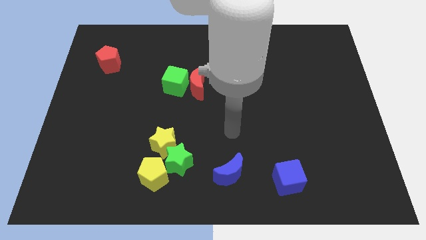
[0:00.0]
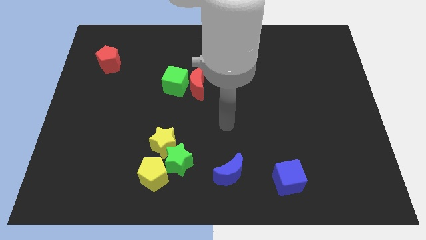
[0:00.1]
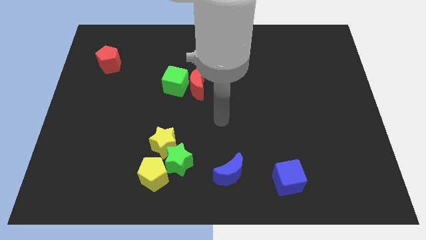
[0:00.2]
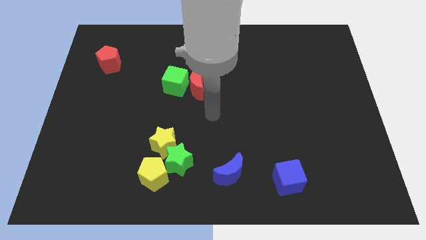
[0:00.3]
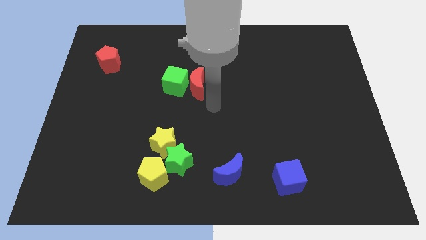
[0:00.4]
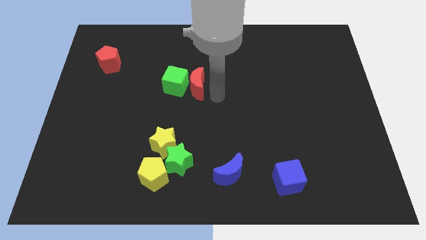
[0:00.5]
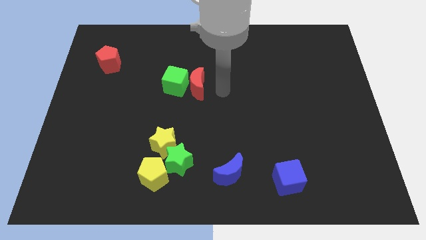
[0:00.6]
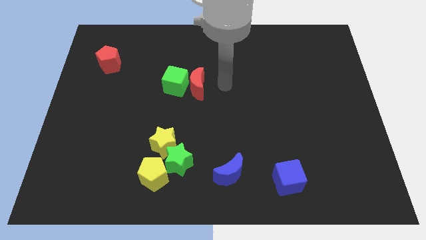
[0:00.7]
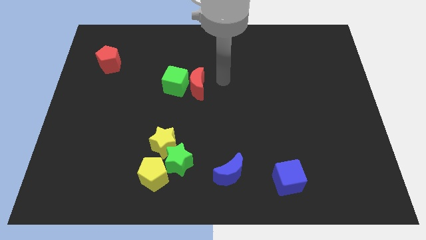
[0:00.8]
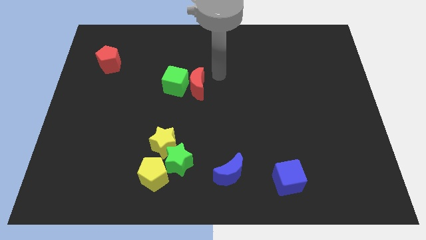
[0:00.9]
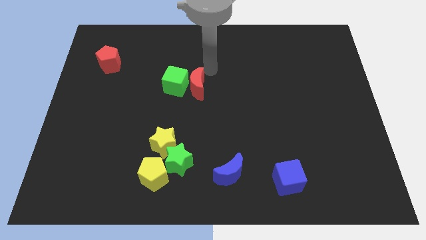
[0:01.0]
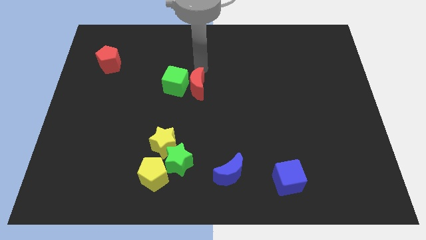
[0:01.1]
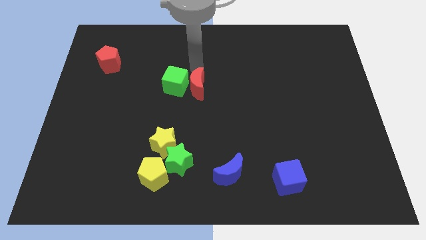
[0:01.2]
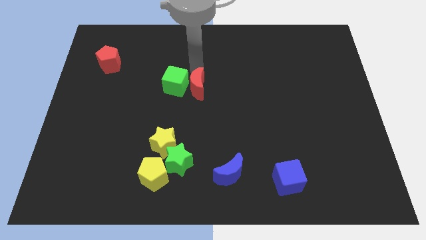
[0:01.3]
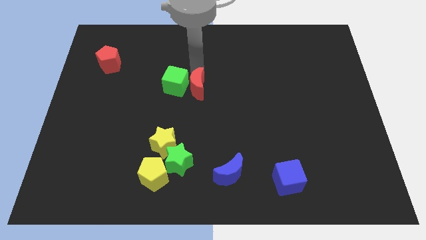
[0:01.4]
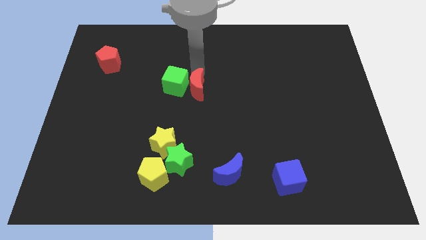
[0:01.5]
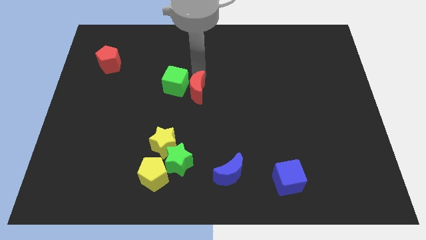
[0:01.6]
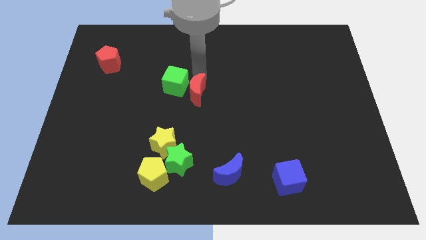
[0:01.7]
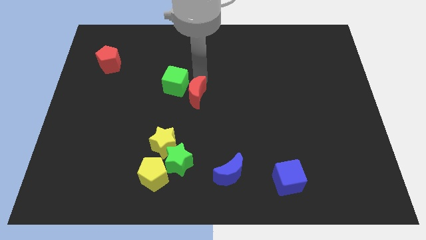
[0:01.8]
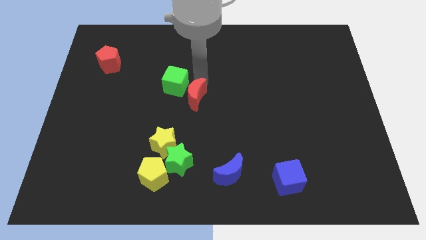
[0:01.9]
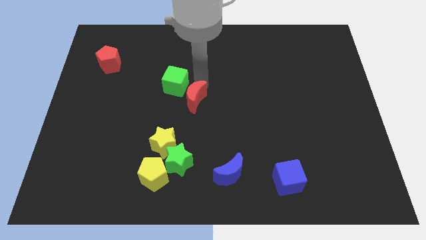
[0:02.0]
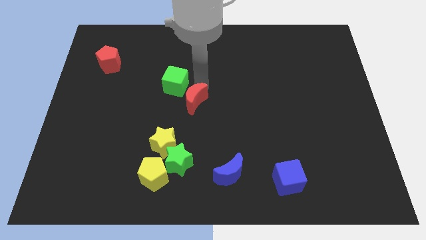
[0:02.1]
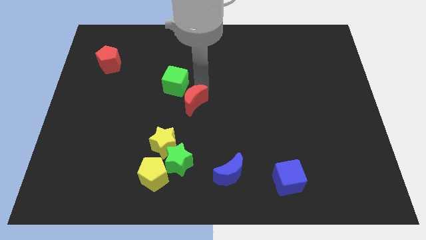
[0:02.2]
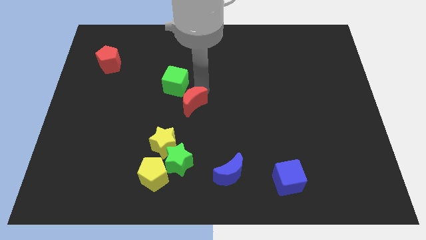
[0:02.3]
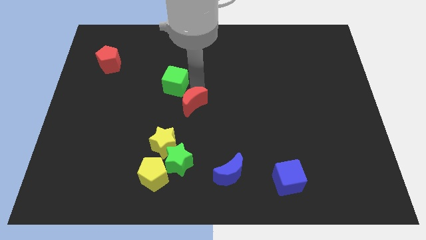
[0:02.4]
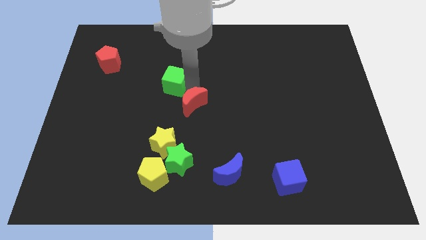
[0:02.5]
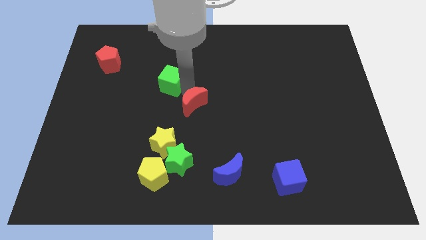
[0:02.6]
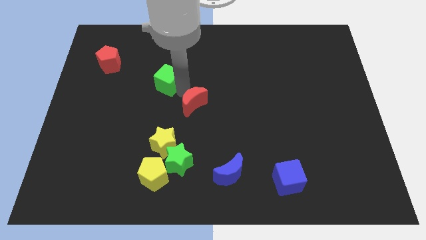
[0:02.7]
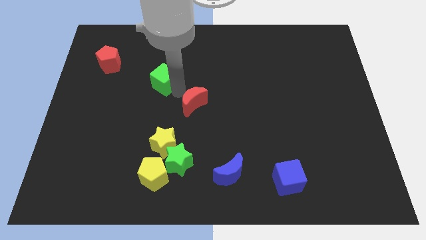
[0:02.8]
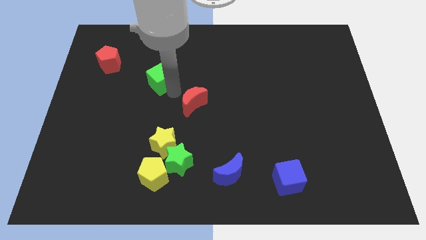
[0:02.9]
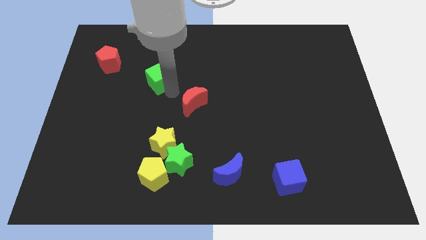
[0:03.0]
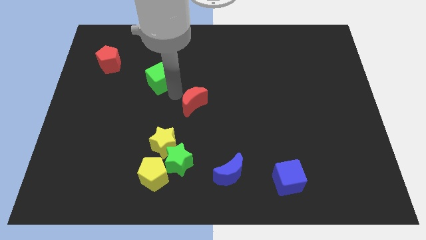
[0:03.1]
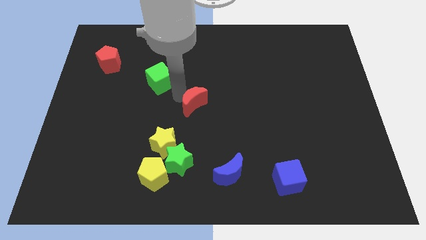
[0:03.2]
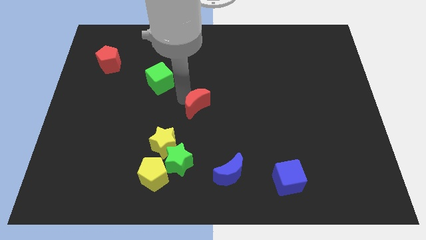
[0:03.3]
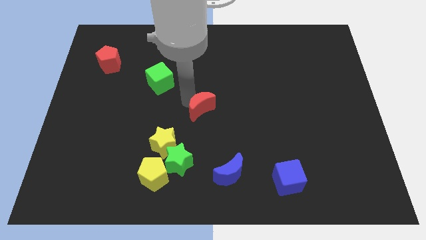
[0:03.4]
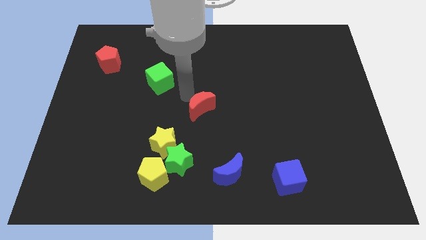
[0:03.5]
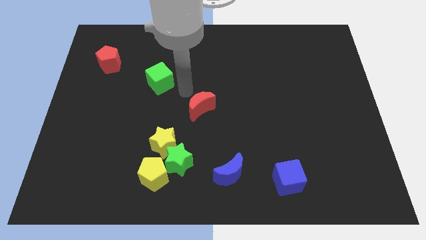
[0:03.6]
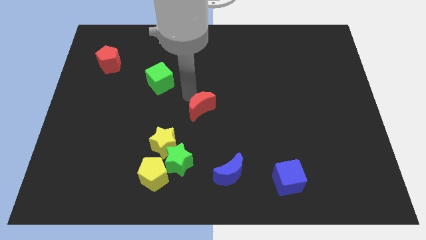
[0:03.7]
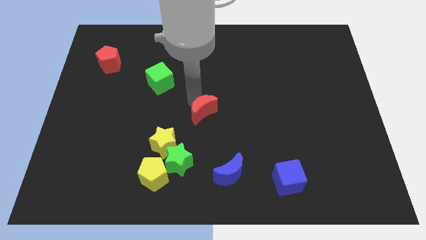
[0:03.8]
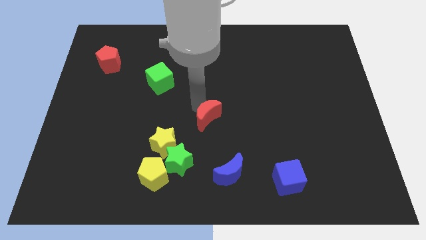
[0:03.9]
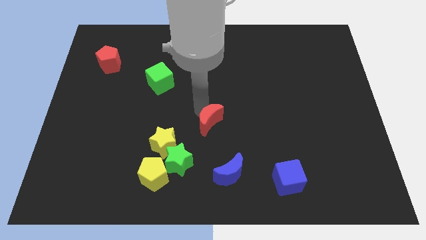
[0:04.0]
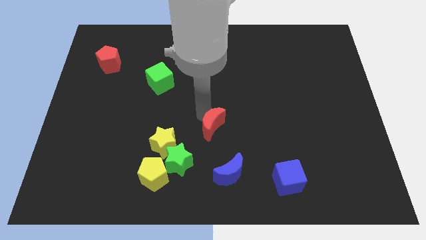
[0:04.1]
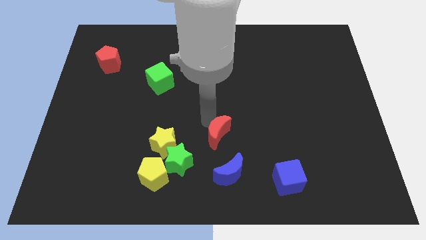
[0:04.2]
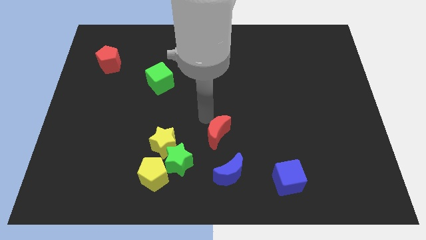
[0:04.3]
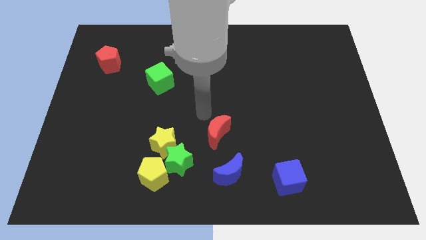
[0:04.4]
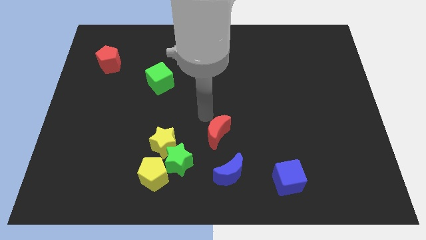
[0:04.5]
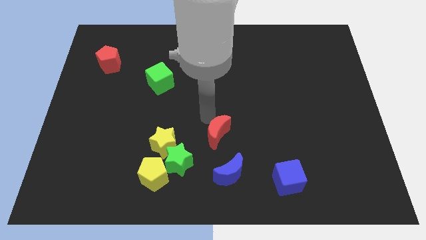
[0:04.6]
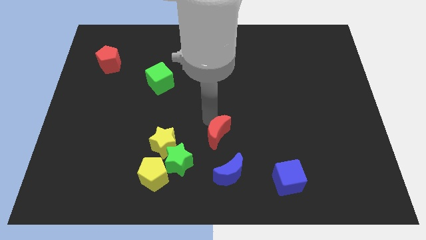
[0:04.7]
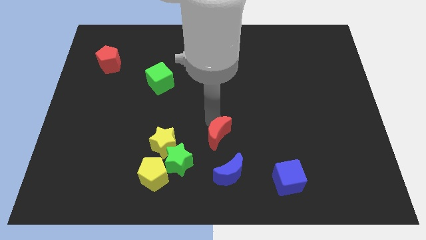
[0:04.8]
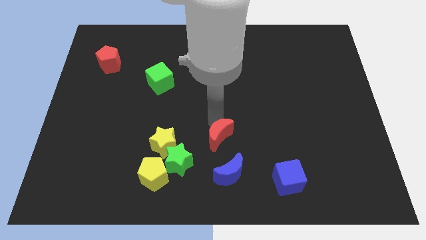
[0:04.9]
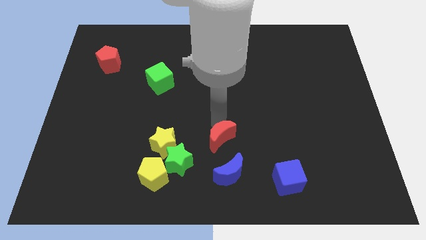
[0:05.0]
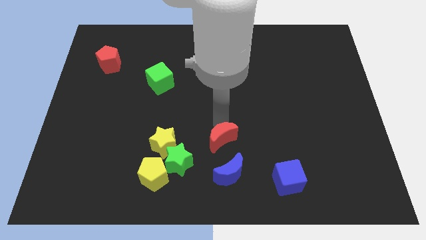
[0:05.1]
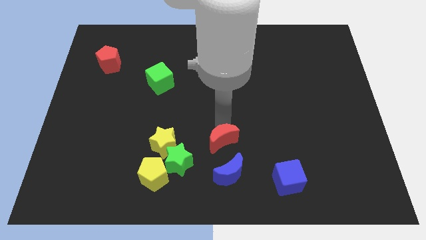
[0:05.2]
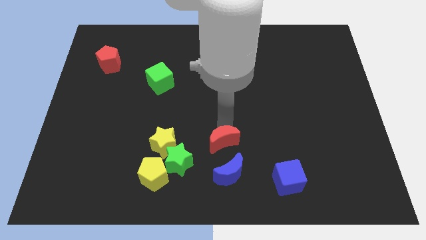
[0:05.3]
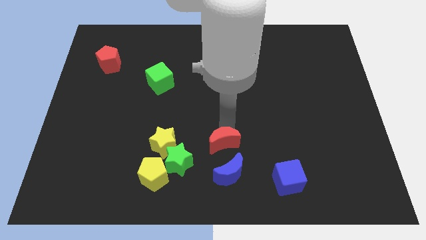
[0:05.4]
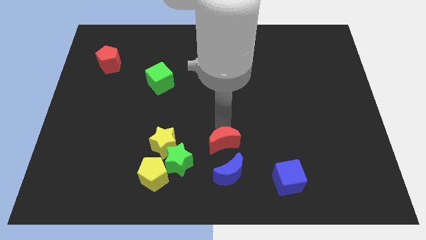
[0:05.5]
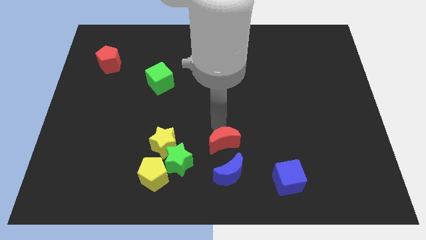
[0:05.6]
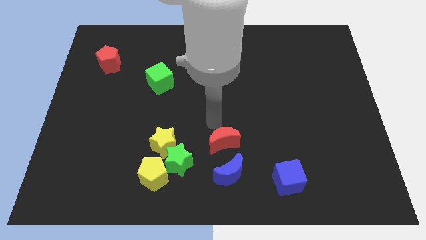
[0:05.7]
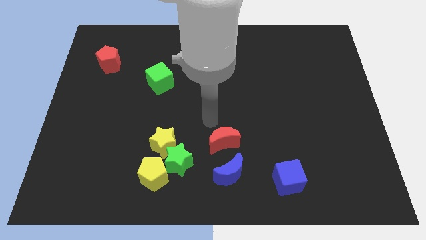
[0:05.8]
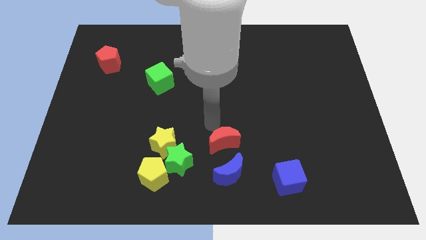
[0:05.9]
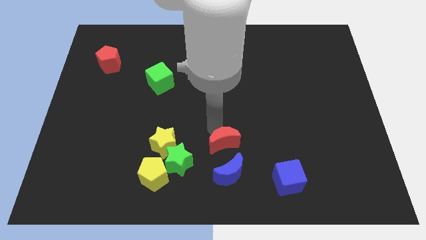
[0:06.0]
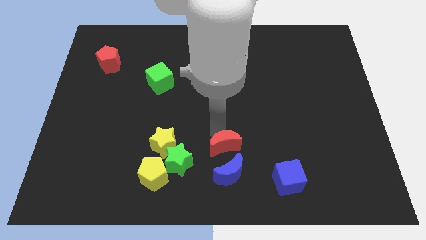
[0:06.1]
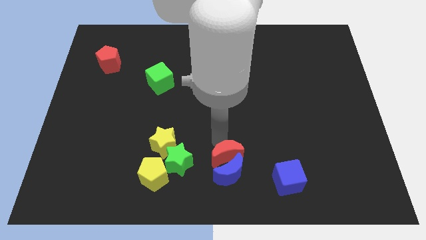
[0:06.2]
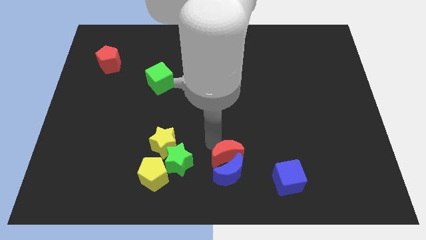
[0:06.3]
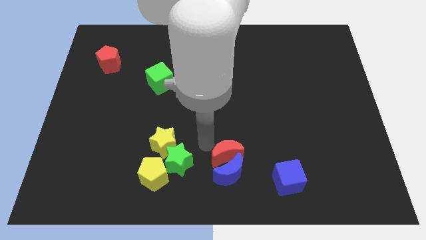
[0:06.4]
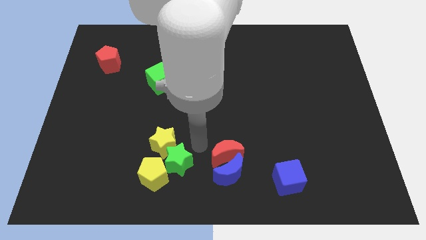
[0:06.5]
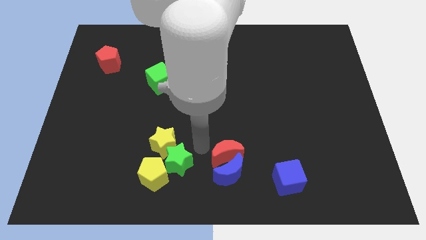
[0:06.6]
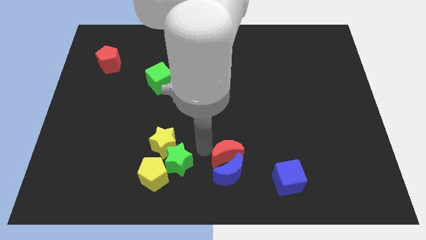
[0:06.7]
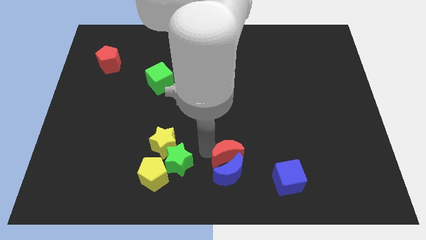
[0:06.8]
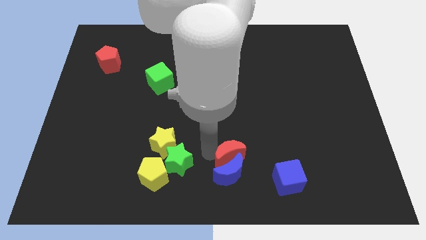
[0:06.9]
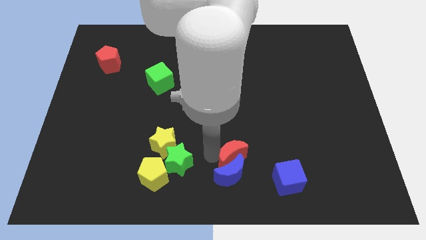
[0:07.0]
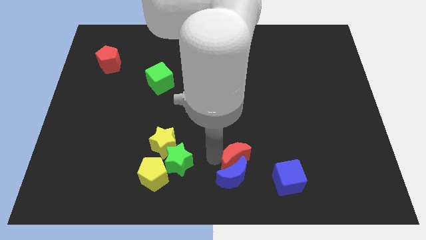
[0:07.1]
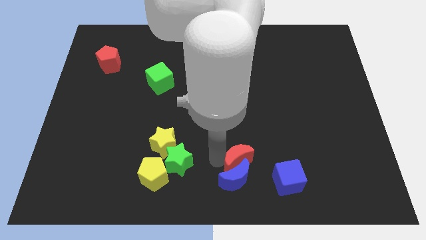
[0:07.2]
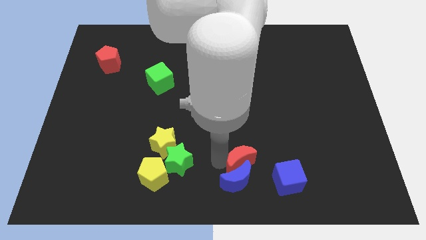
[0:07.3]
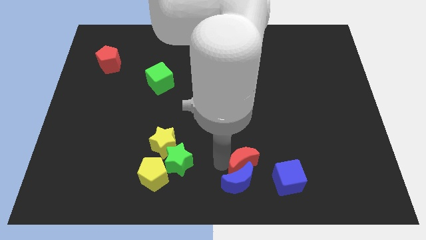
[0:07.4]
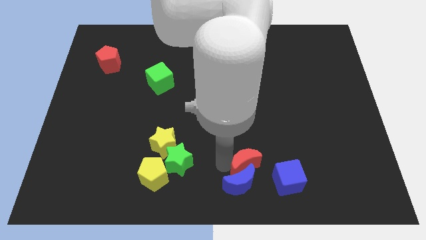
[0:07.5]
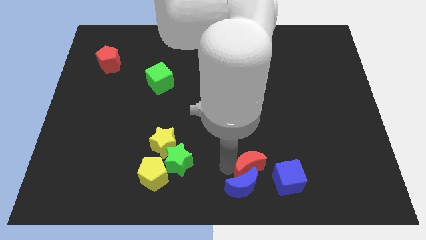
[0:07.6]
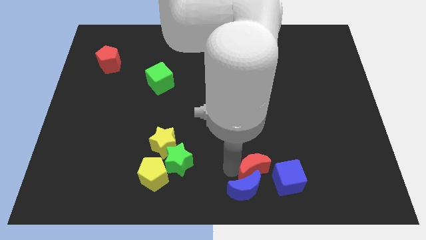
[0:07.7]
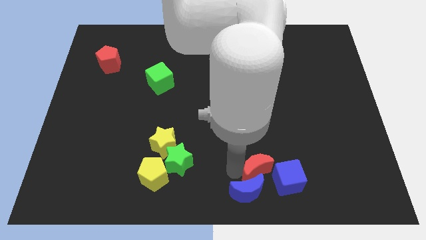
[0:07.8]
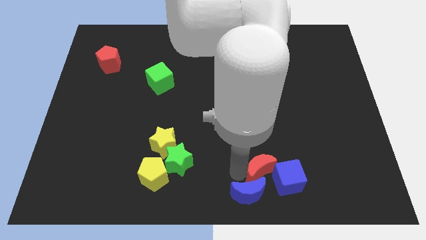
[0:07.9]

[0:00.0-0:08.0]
move the red moon close to the blue cube
